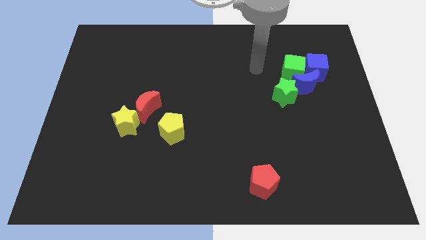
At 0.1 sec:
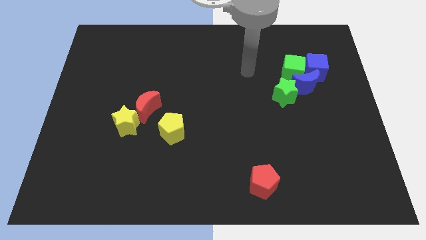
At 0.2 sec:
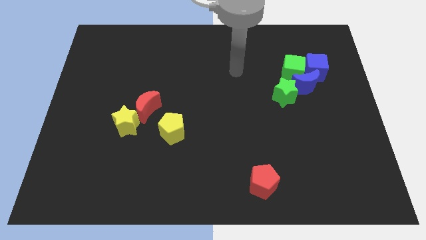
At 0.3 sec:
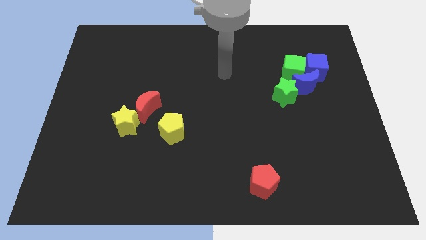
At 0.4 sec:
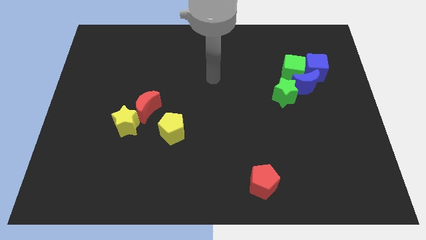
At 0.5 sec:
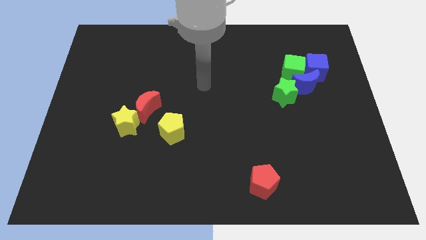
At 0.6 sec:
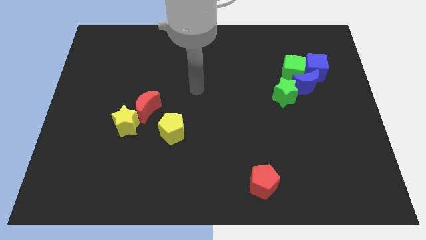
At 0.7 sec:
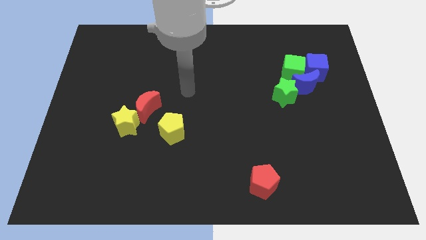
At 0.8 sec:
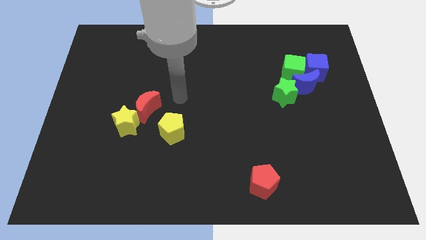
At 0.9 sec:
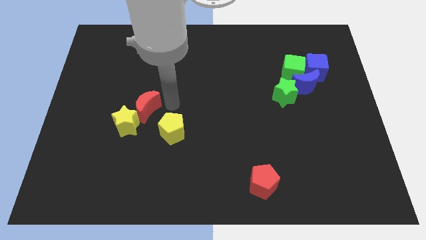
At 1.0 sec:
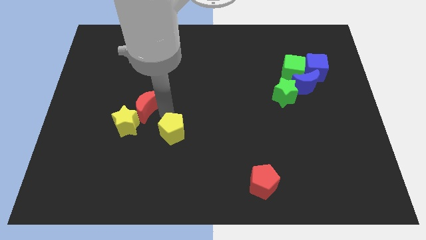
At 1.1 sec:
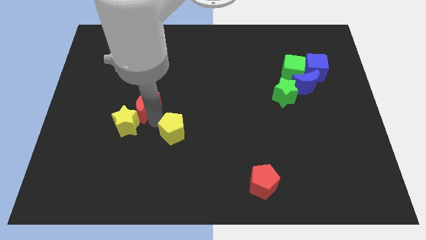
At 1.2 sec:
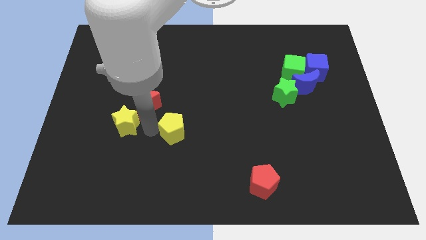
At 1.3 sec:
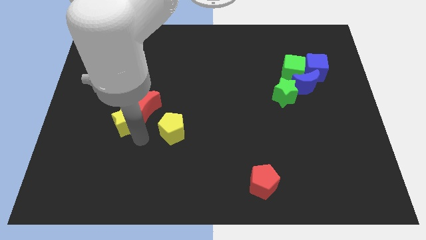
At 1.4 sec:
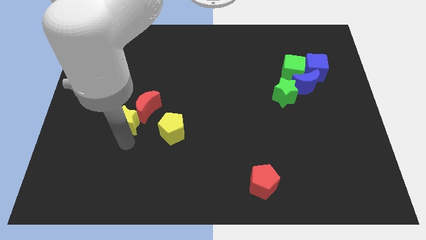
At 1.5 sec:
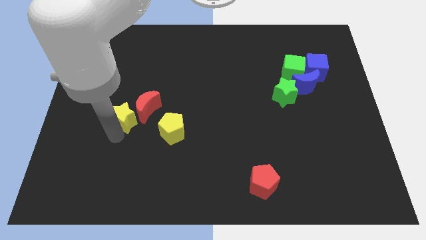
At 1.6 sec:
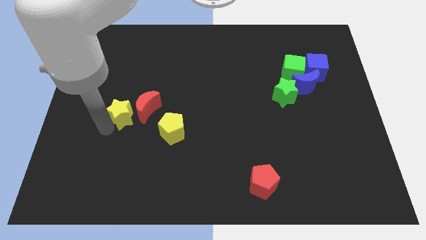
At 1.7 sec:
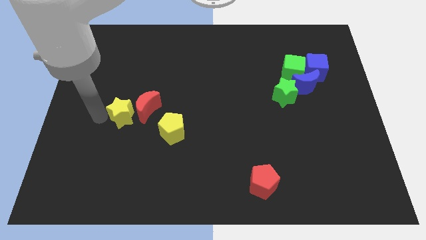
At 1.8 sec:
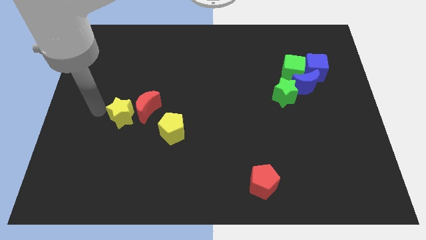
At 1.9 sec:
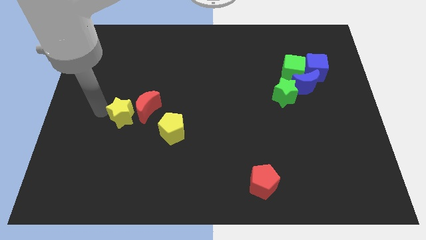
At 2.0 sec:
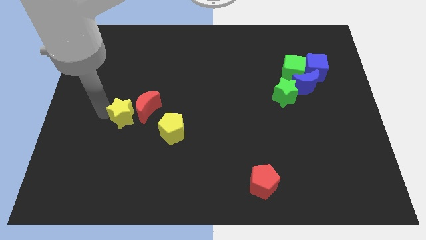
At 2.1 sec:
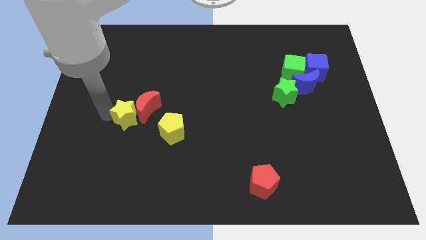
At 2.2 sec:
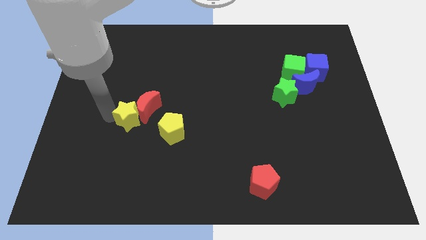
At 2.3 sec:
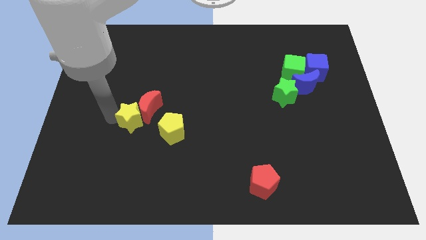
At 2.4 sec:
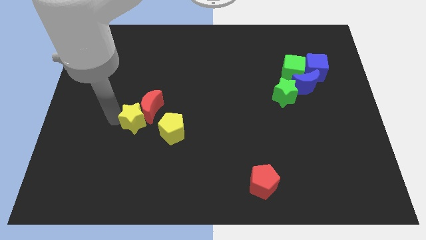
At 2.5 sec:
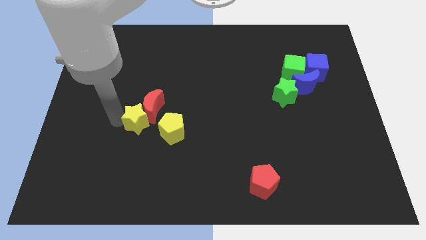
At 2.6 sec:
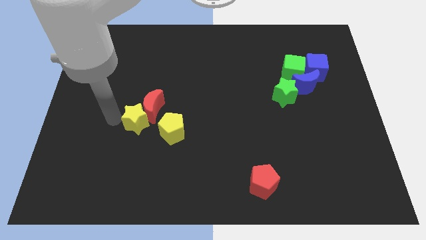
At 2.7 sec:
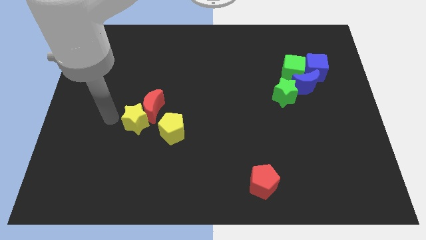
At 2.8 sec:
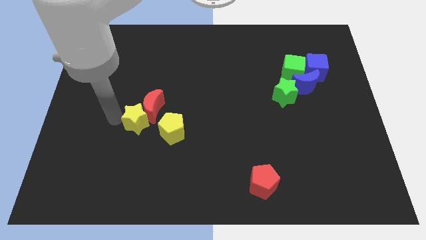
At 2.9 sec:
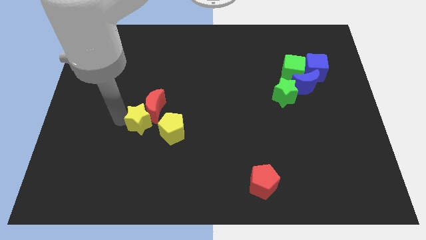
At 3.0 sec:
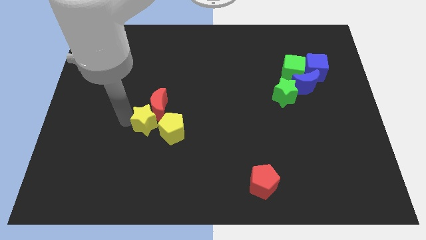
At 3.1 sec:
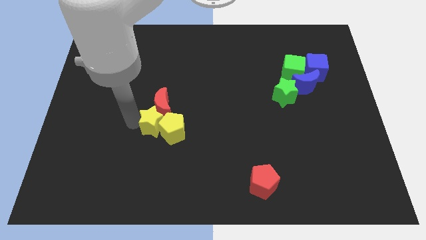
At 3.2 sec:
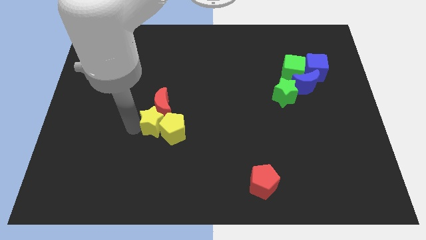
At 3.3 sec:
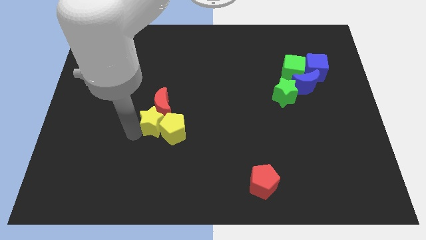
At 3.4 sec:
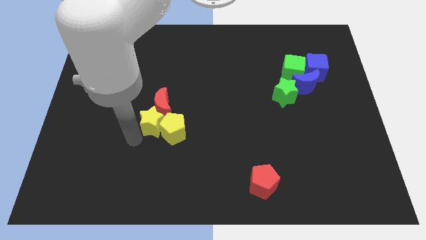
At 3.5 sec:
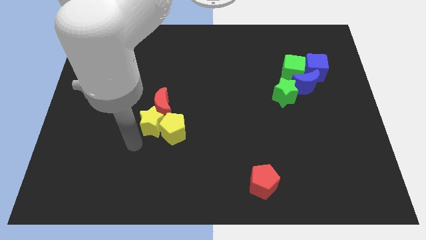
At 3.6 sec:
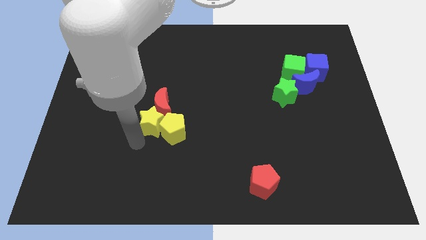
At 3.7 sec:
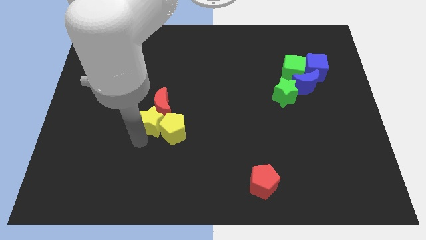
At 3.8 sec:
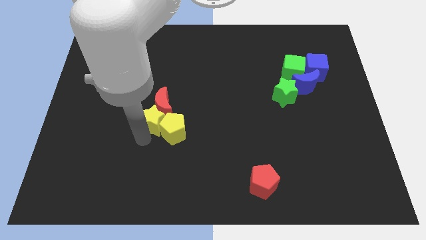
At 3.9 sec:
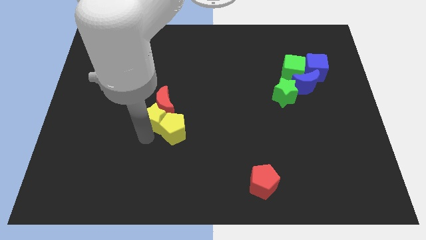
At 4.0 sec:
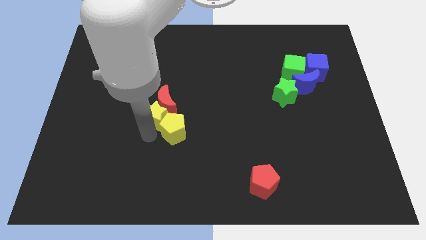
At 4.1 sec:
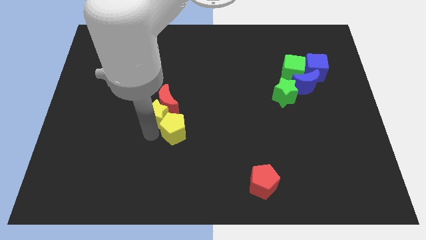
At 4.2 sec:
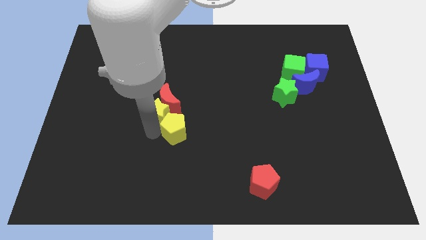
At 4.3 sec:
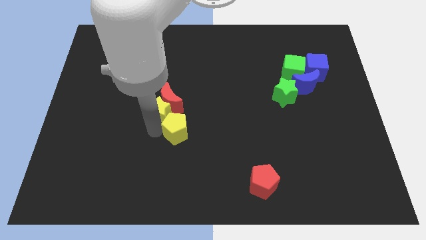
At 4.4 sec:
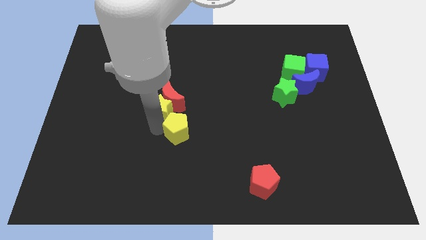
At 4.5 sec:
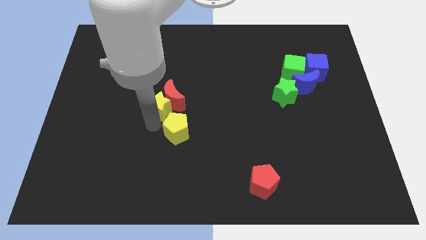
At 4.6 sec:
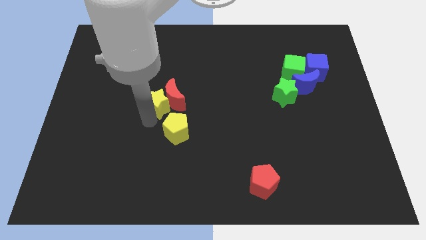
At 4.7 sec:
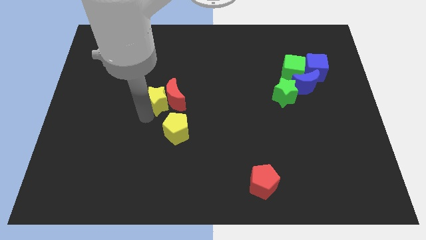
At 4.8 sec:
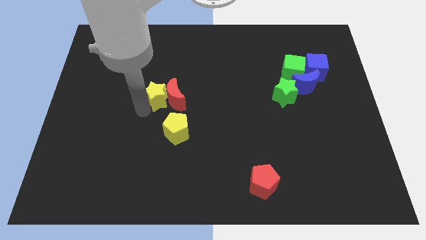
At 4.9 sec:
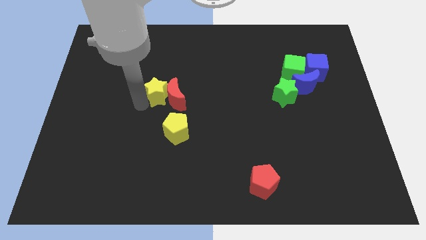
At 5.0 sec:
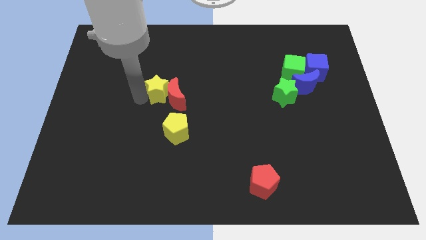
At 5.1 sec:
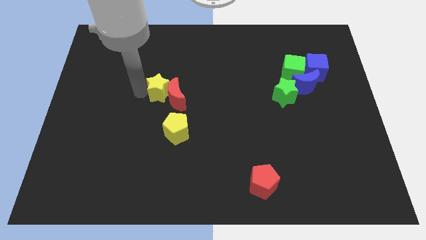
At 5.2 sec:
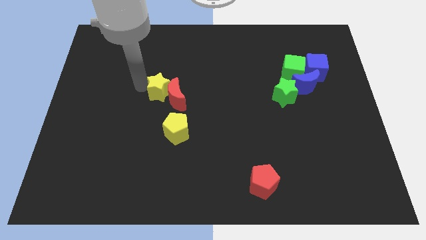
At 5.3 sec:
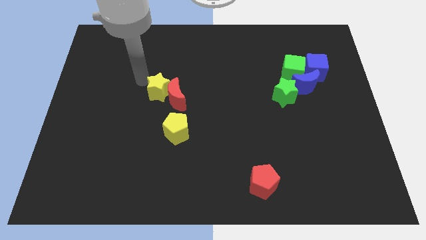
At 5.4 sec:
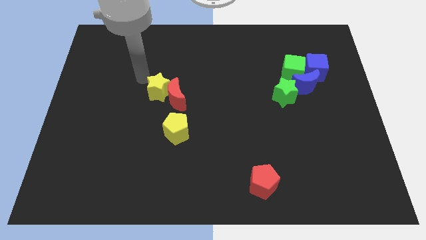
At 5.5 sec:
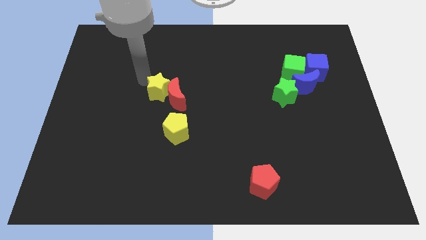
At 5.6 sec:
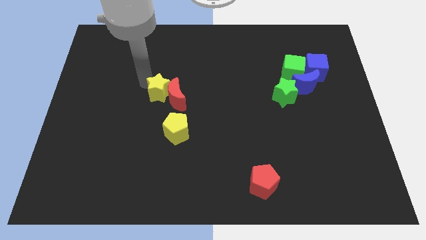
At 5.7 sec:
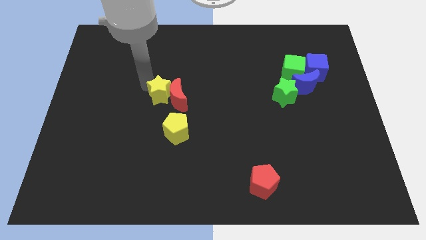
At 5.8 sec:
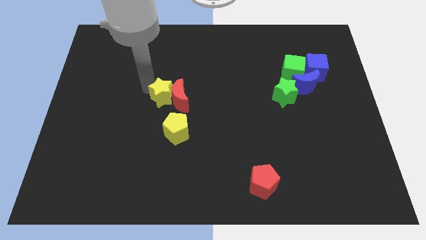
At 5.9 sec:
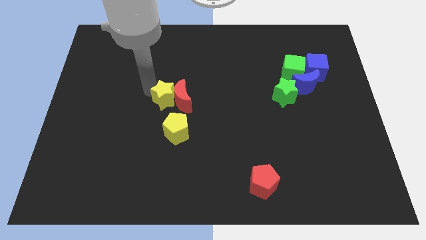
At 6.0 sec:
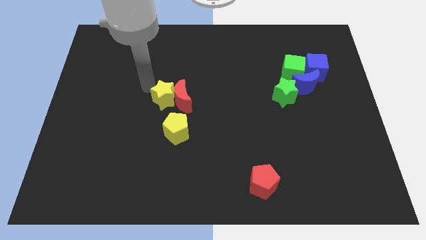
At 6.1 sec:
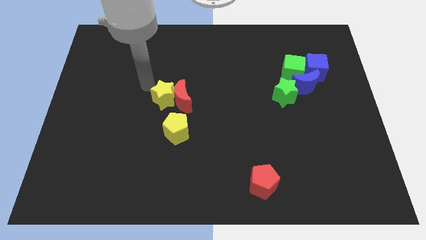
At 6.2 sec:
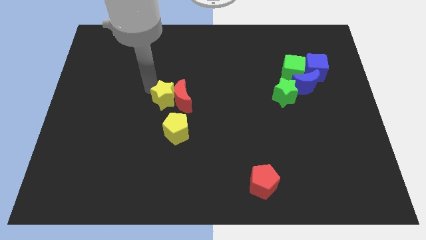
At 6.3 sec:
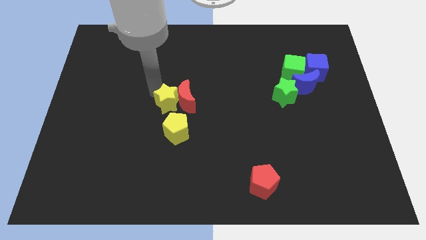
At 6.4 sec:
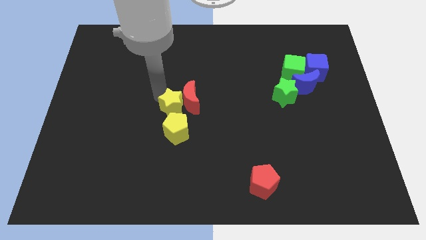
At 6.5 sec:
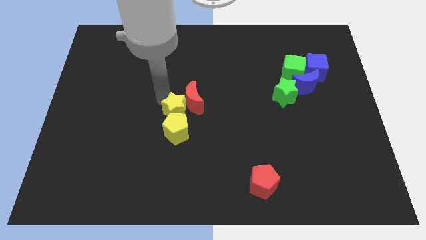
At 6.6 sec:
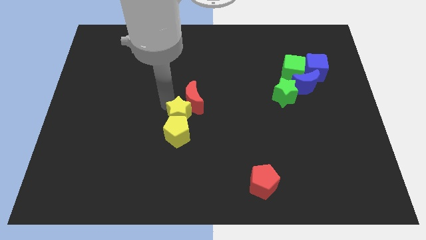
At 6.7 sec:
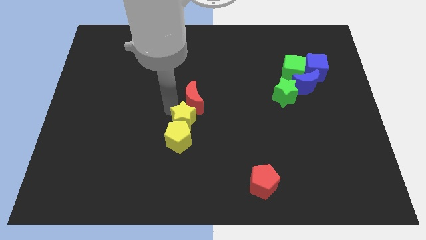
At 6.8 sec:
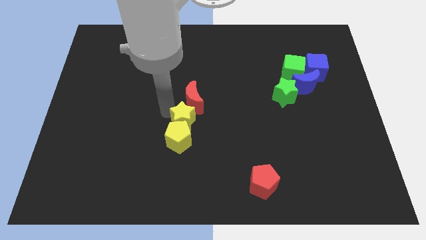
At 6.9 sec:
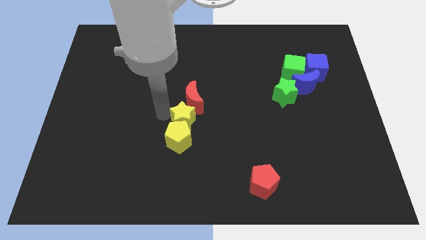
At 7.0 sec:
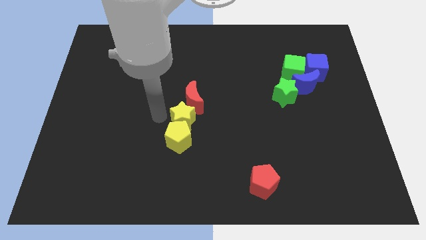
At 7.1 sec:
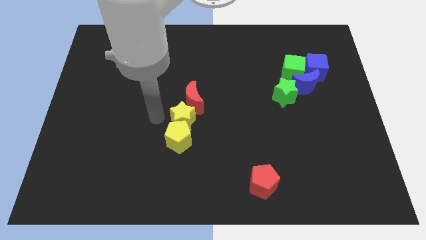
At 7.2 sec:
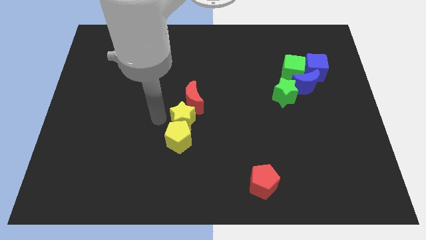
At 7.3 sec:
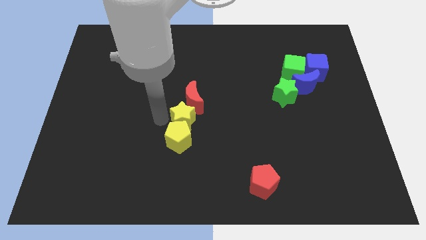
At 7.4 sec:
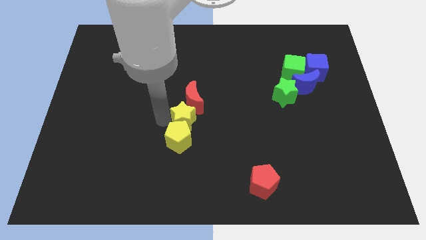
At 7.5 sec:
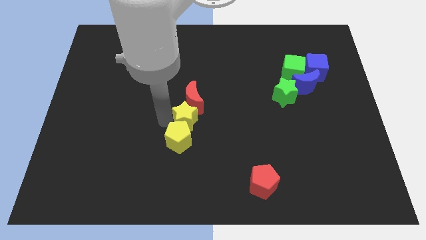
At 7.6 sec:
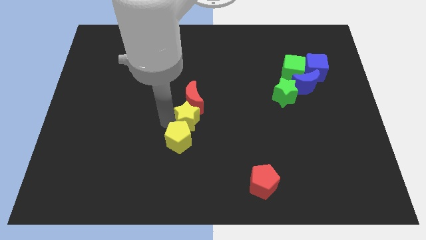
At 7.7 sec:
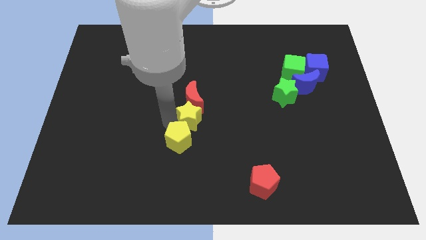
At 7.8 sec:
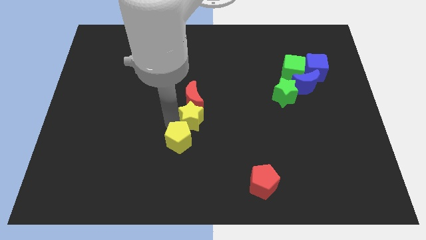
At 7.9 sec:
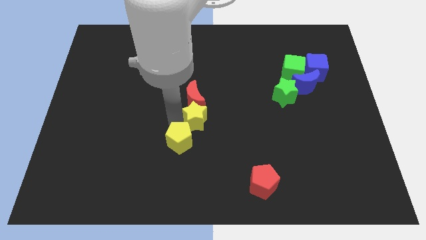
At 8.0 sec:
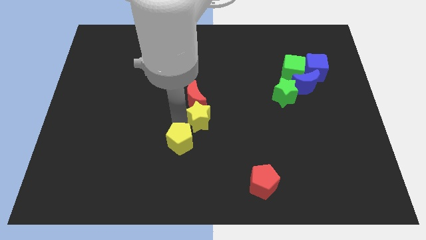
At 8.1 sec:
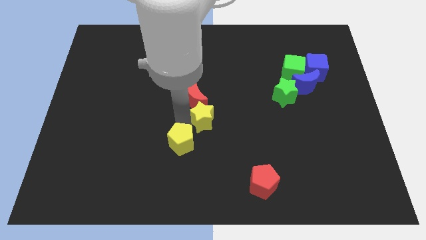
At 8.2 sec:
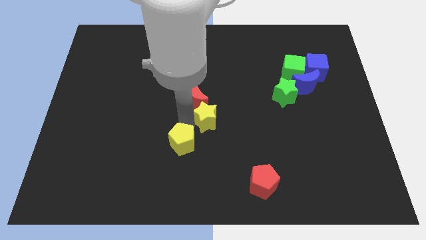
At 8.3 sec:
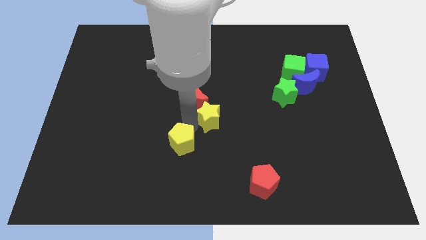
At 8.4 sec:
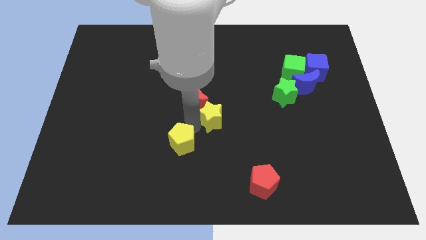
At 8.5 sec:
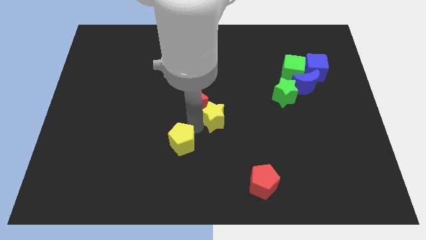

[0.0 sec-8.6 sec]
slide the yellow star to the right
